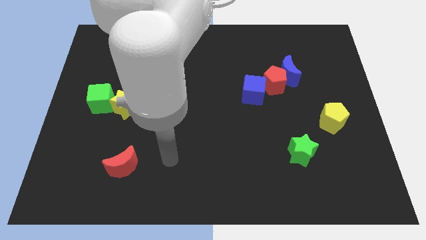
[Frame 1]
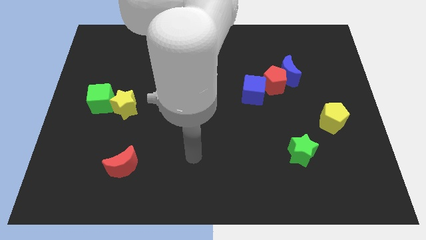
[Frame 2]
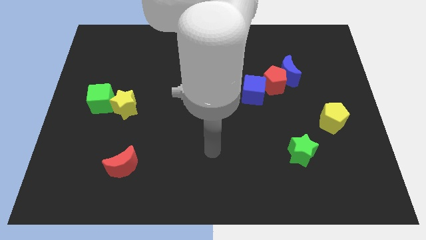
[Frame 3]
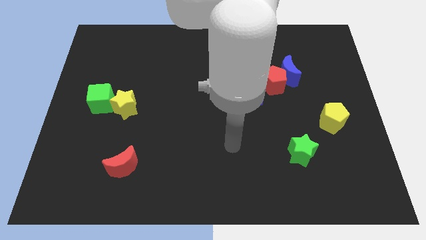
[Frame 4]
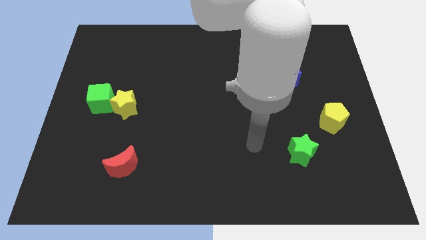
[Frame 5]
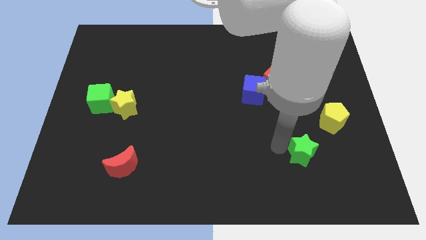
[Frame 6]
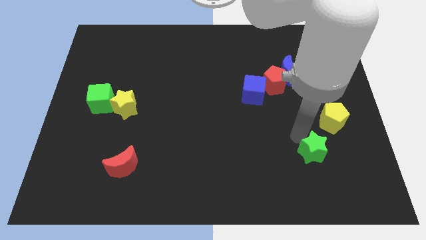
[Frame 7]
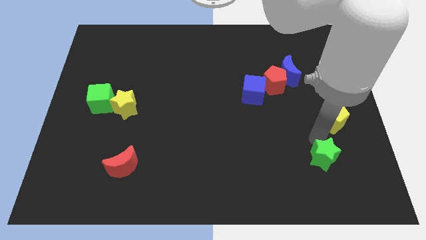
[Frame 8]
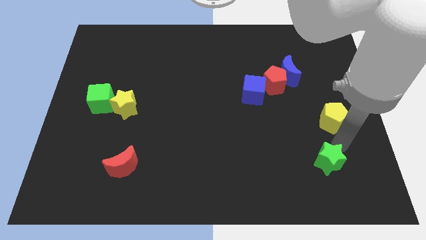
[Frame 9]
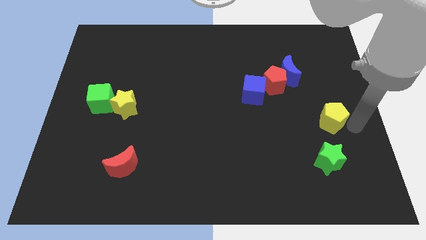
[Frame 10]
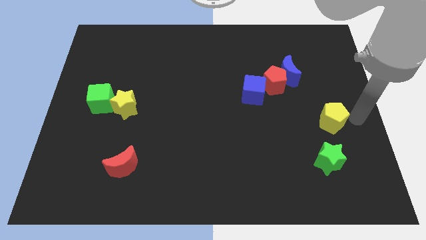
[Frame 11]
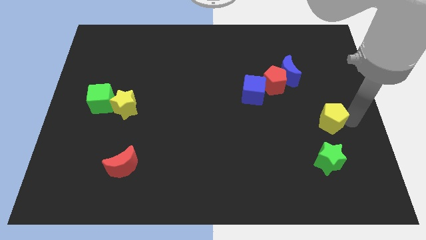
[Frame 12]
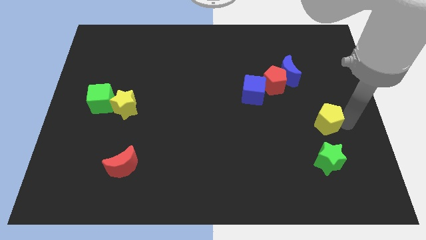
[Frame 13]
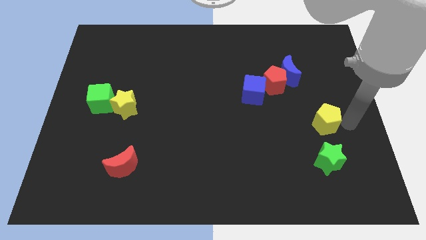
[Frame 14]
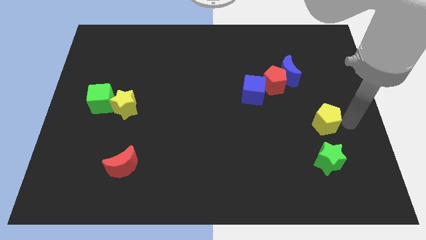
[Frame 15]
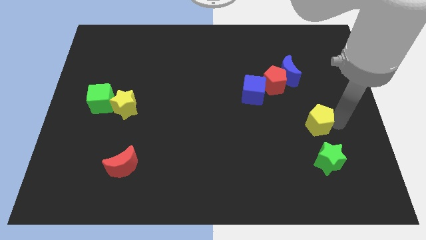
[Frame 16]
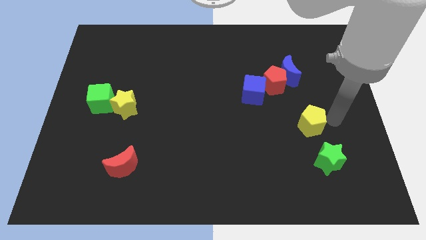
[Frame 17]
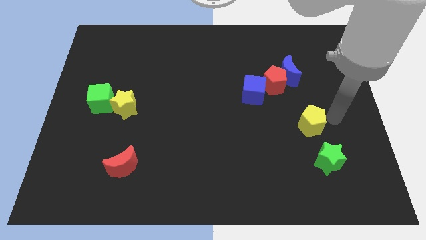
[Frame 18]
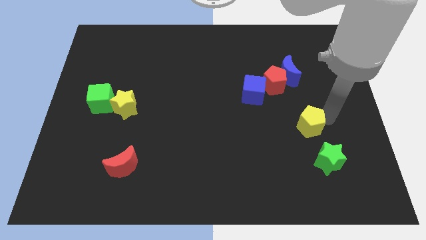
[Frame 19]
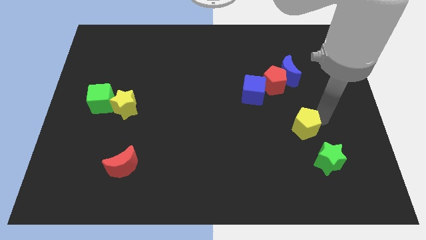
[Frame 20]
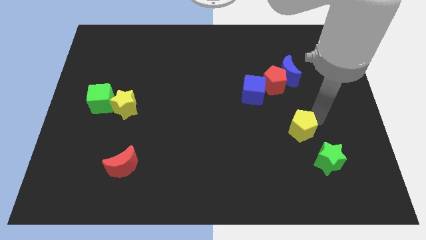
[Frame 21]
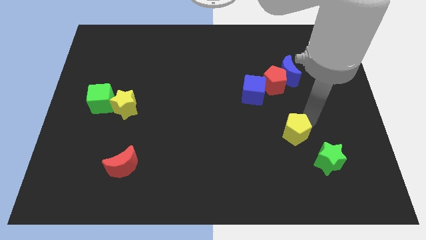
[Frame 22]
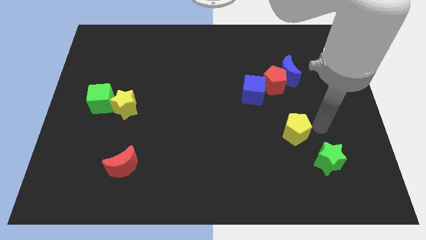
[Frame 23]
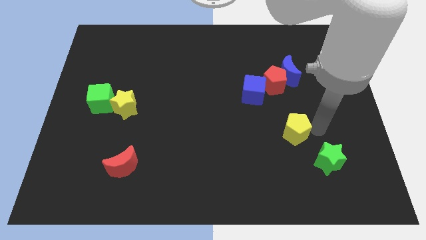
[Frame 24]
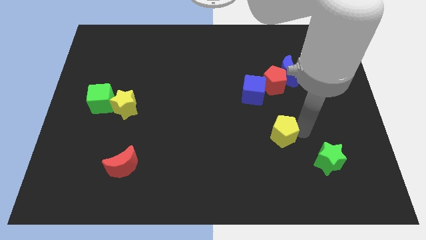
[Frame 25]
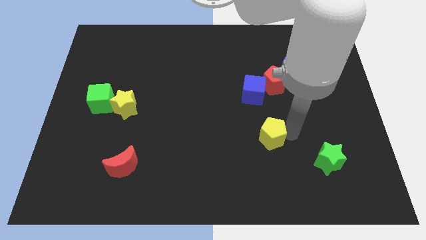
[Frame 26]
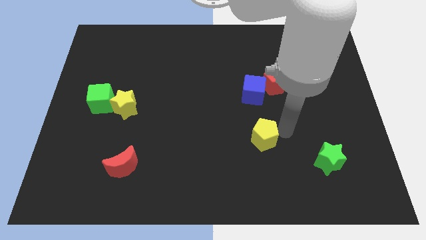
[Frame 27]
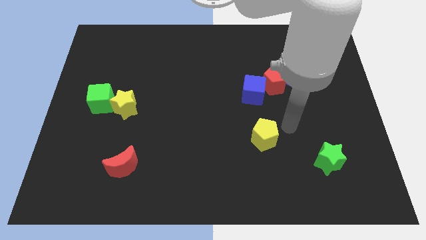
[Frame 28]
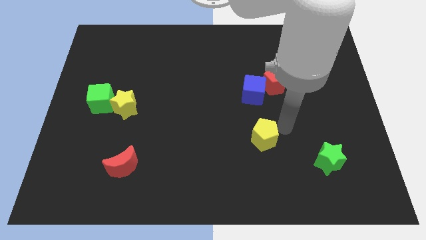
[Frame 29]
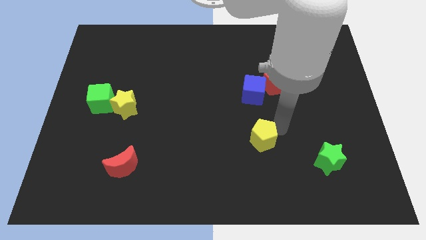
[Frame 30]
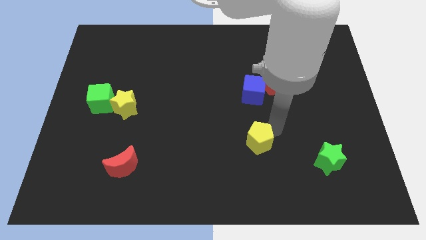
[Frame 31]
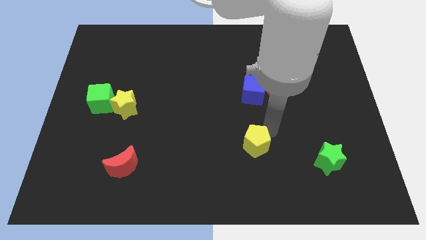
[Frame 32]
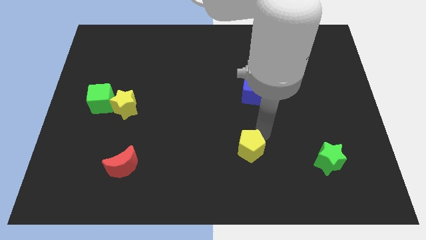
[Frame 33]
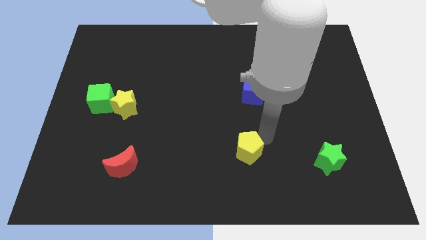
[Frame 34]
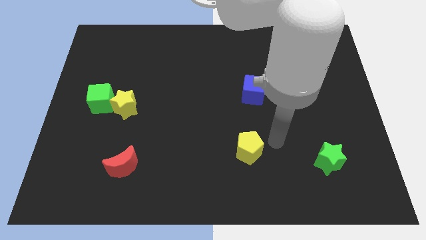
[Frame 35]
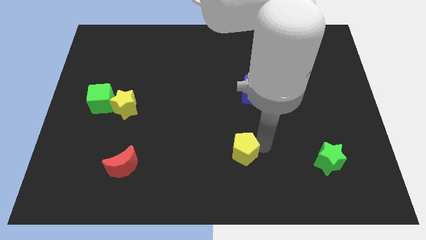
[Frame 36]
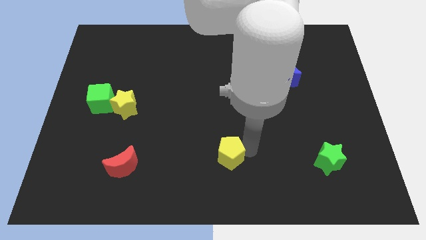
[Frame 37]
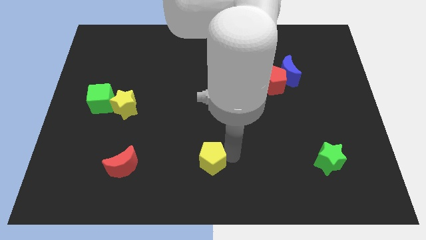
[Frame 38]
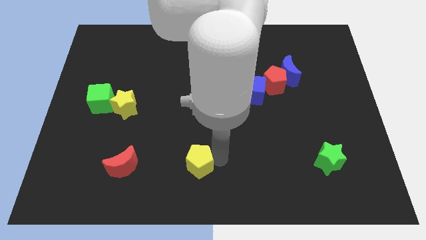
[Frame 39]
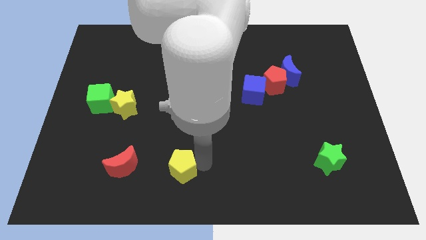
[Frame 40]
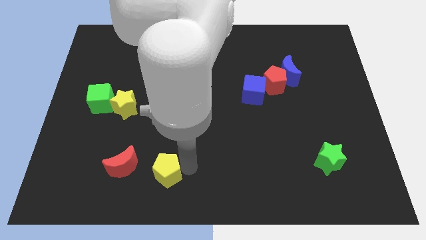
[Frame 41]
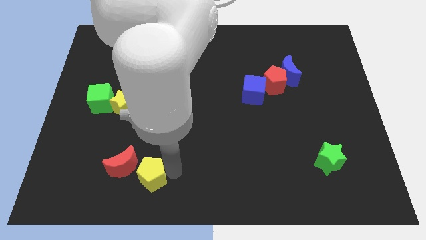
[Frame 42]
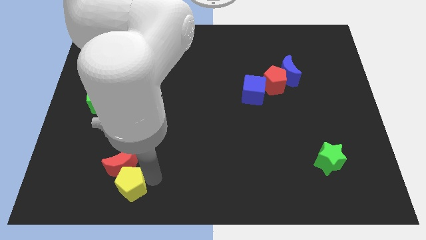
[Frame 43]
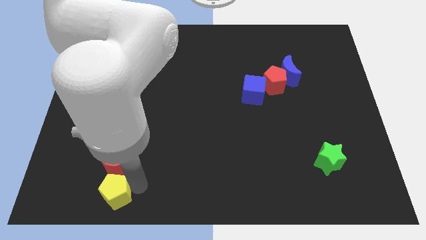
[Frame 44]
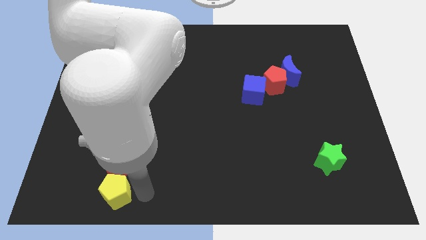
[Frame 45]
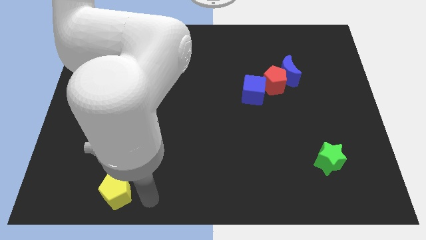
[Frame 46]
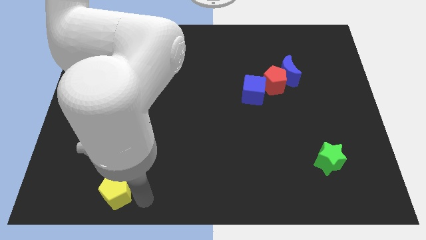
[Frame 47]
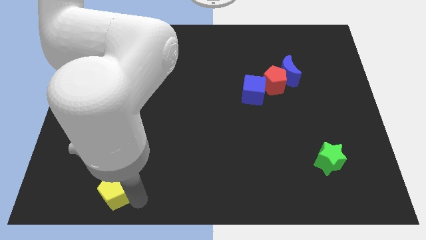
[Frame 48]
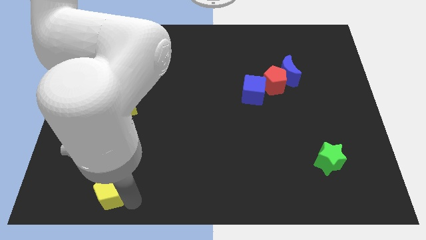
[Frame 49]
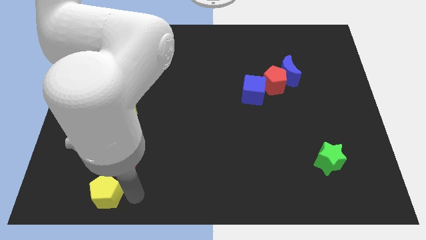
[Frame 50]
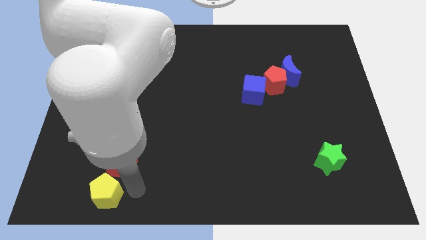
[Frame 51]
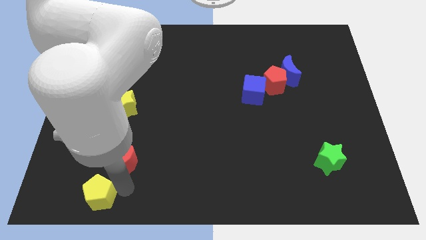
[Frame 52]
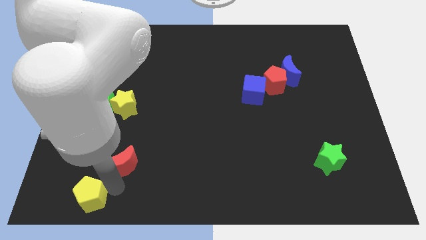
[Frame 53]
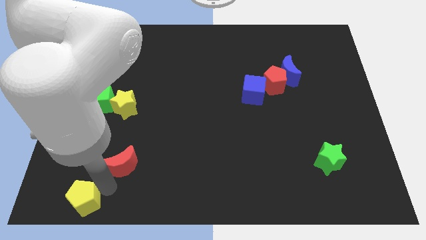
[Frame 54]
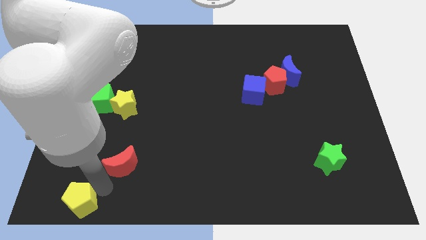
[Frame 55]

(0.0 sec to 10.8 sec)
move the yellow pentagon to the lower left corner

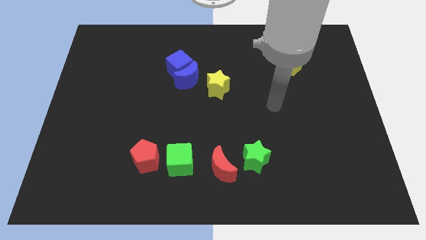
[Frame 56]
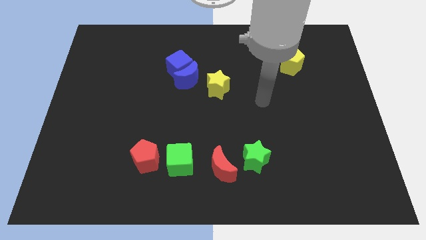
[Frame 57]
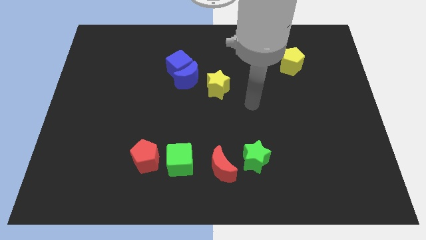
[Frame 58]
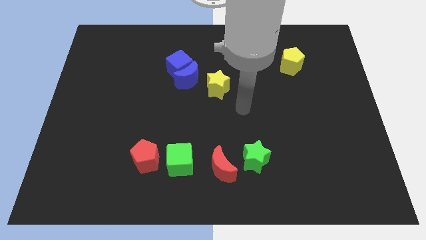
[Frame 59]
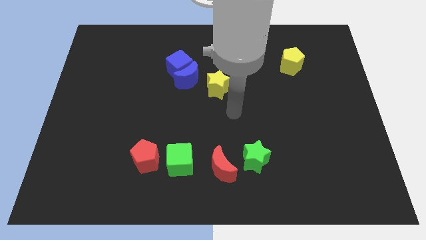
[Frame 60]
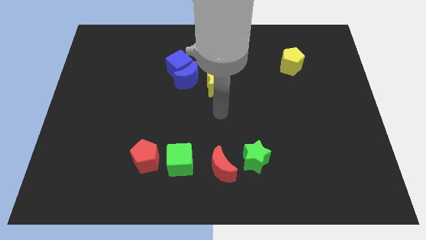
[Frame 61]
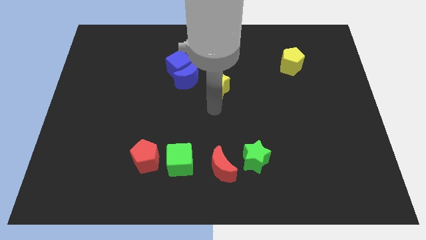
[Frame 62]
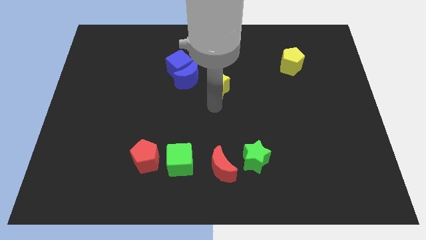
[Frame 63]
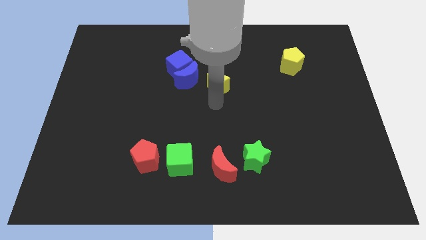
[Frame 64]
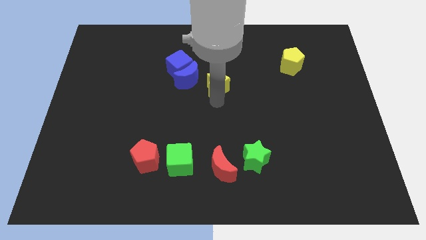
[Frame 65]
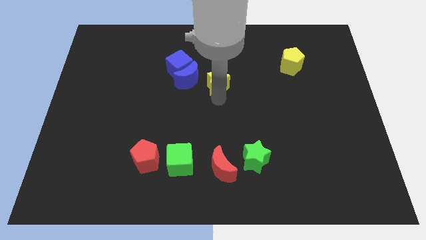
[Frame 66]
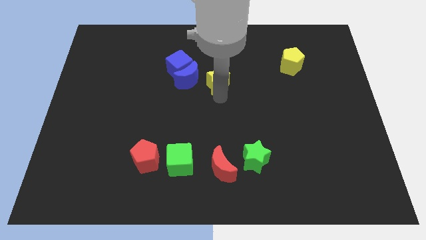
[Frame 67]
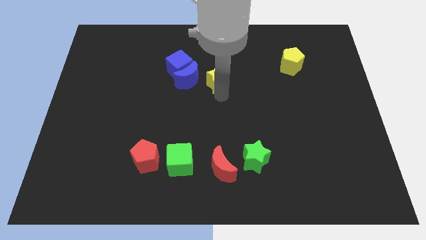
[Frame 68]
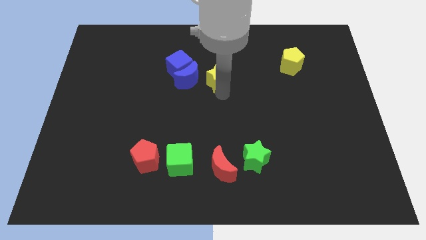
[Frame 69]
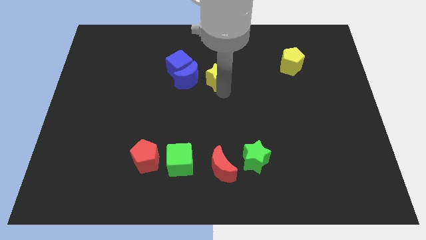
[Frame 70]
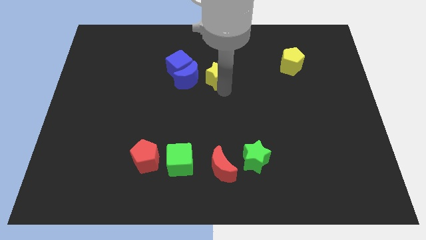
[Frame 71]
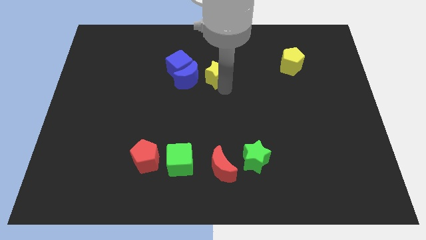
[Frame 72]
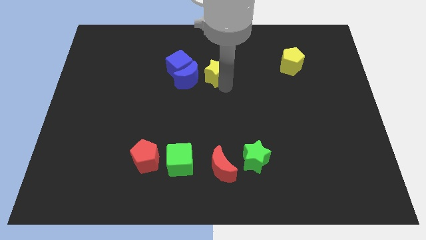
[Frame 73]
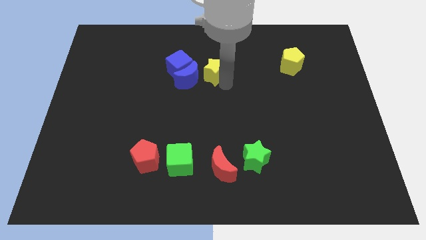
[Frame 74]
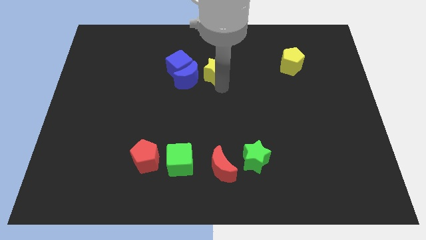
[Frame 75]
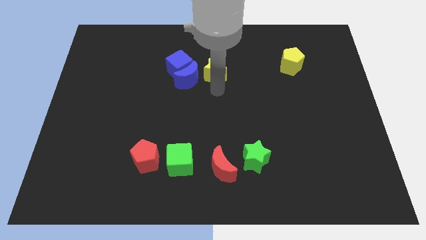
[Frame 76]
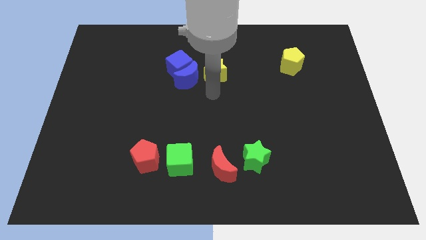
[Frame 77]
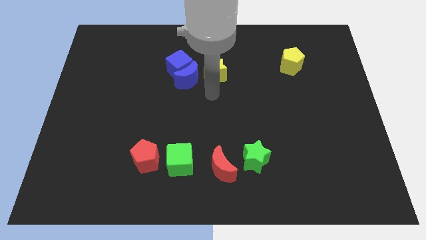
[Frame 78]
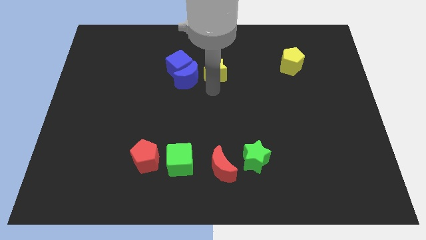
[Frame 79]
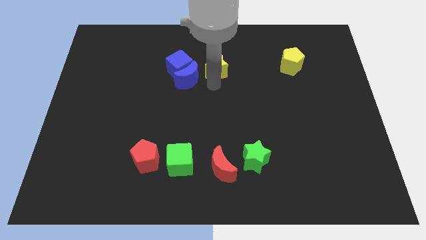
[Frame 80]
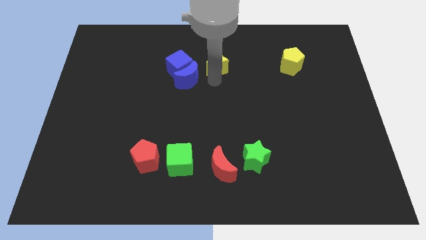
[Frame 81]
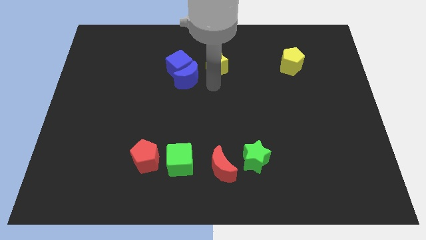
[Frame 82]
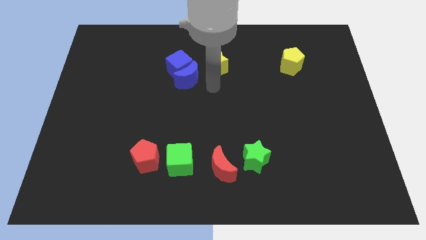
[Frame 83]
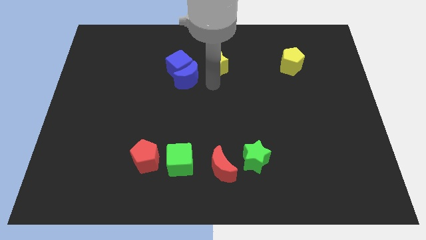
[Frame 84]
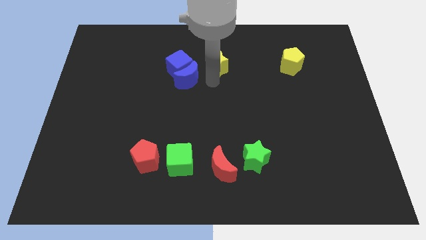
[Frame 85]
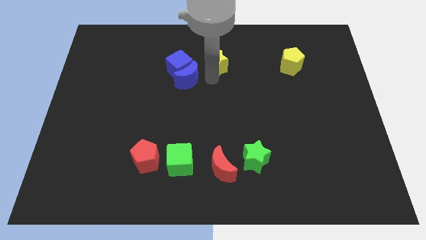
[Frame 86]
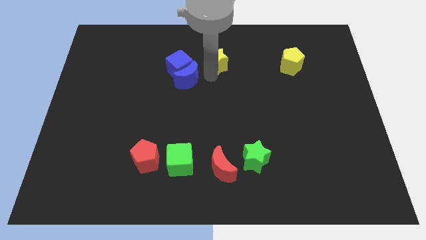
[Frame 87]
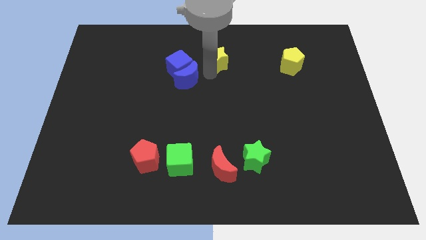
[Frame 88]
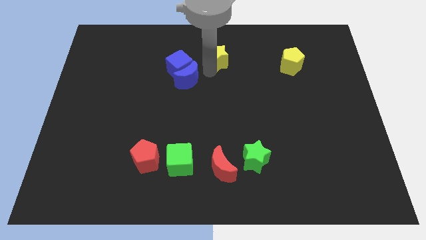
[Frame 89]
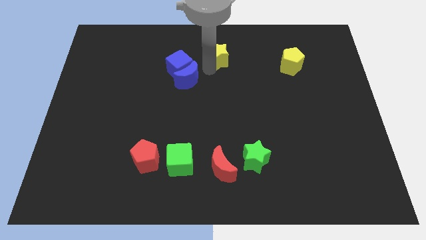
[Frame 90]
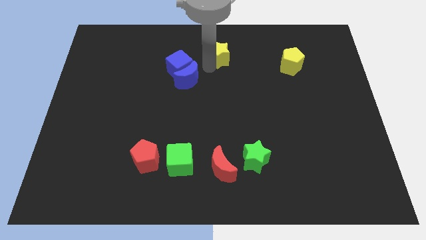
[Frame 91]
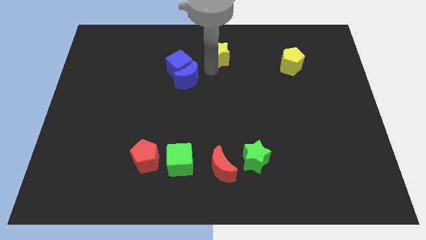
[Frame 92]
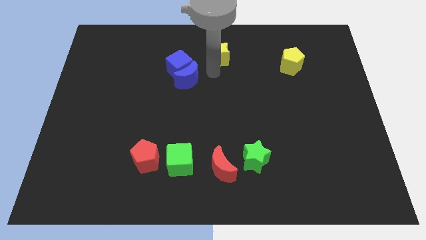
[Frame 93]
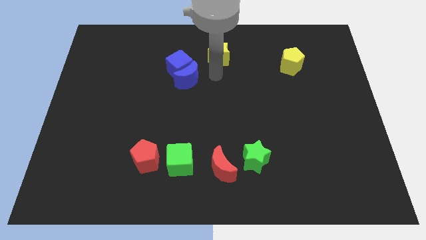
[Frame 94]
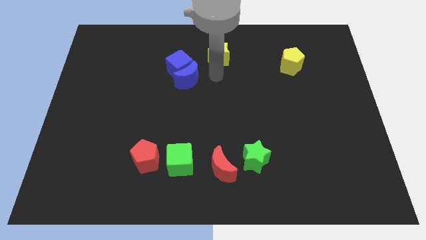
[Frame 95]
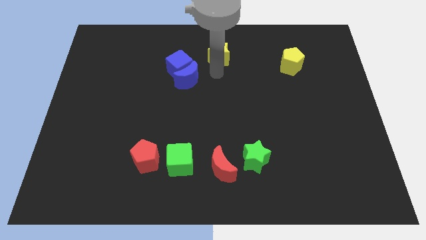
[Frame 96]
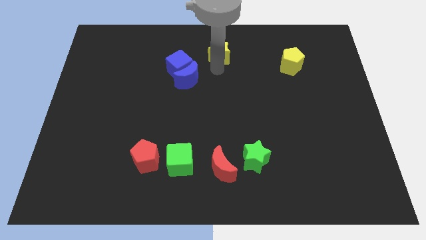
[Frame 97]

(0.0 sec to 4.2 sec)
slide the yellow star to the top side
